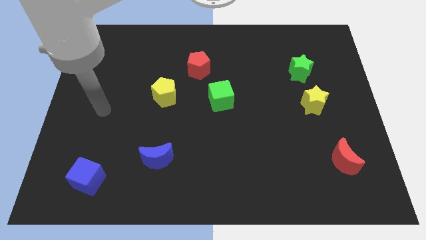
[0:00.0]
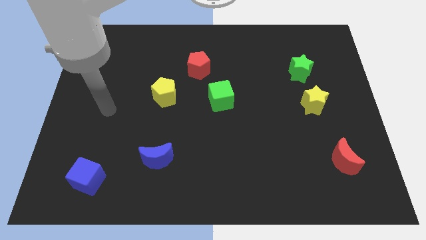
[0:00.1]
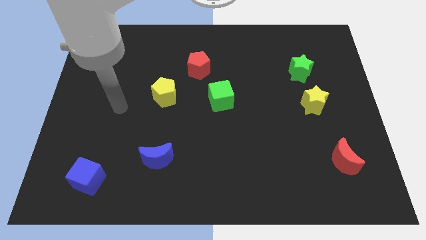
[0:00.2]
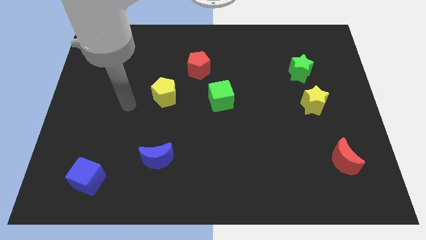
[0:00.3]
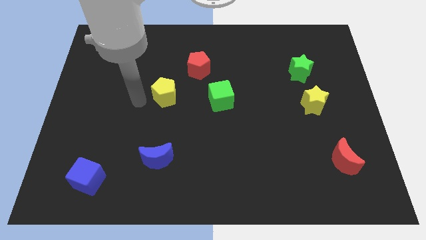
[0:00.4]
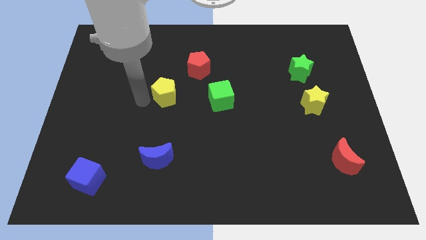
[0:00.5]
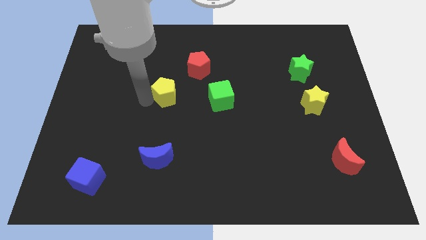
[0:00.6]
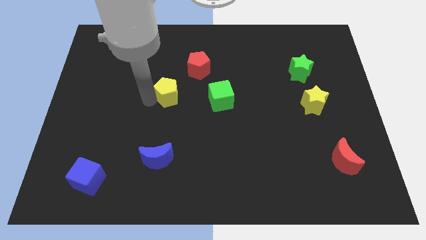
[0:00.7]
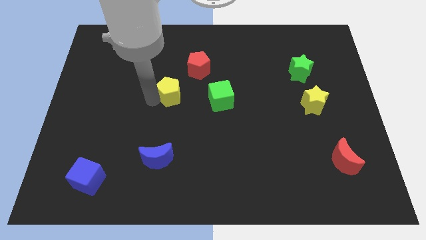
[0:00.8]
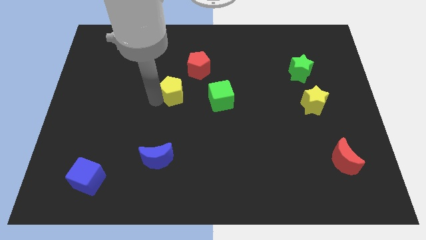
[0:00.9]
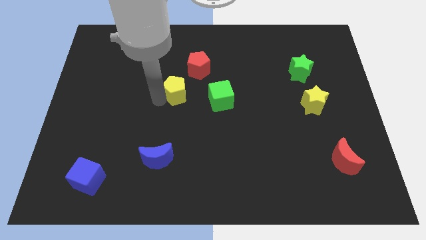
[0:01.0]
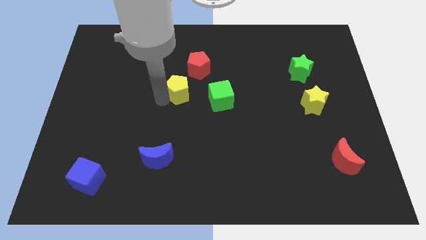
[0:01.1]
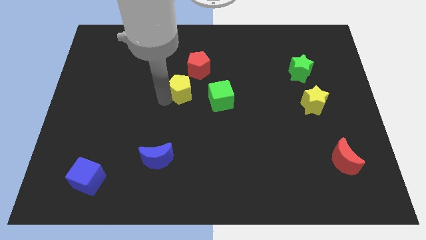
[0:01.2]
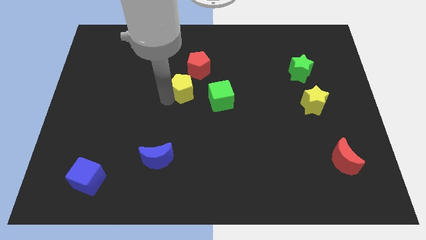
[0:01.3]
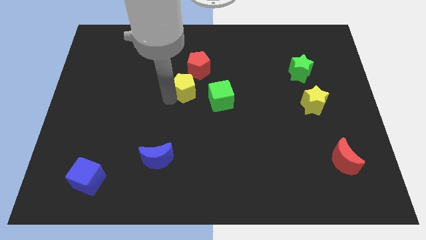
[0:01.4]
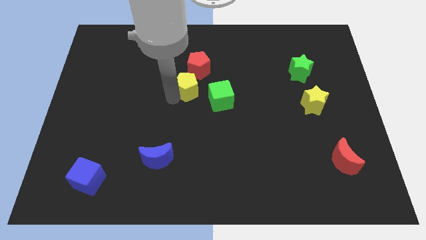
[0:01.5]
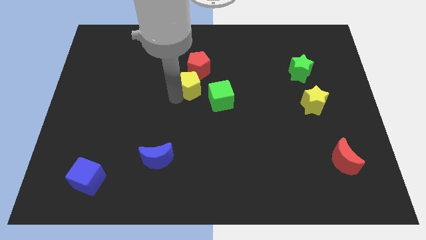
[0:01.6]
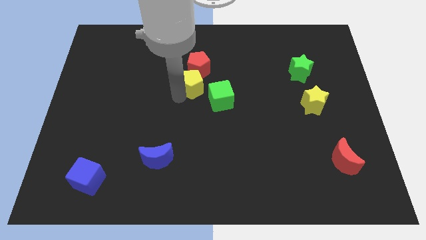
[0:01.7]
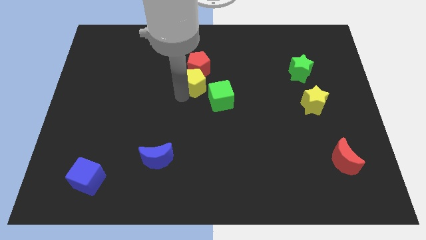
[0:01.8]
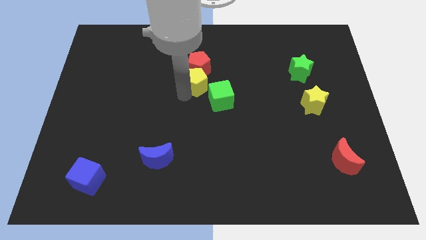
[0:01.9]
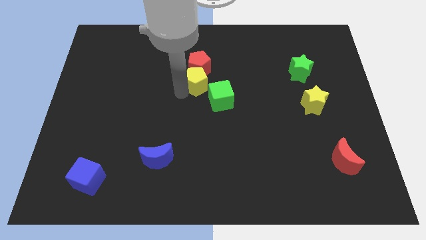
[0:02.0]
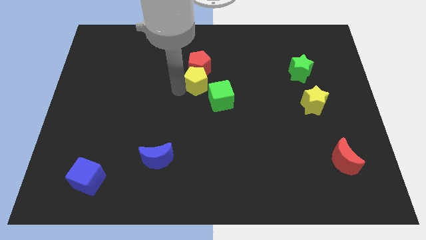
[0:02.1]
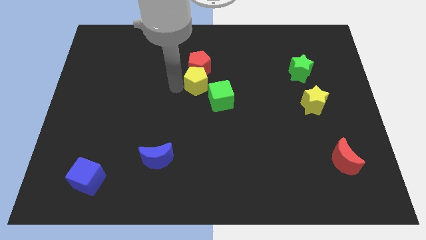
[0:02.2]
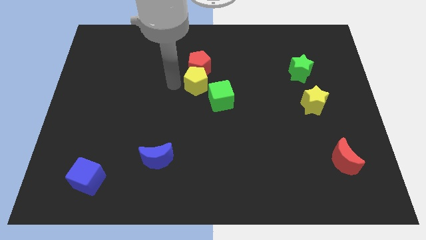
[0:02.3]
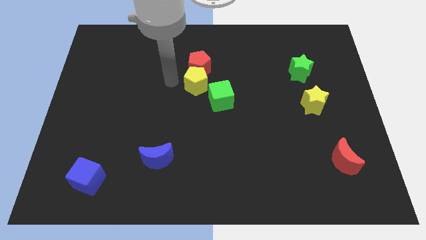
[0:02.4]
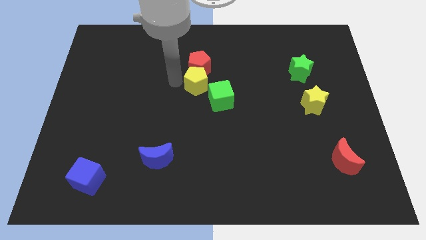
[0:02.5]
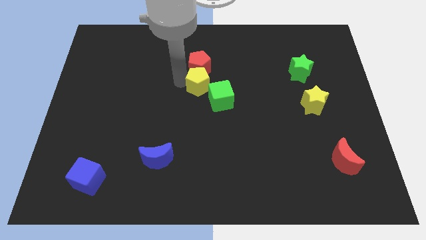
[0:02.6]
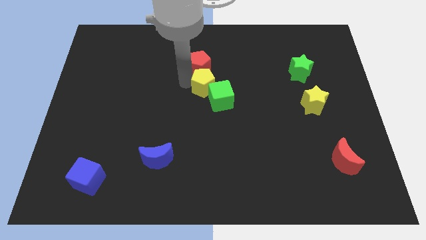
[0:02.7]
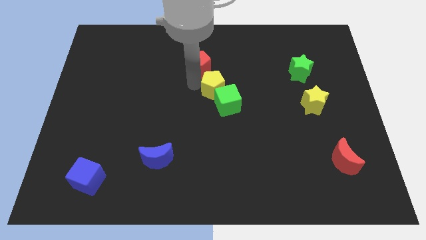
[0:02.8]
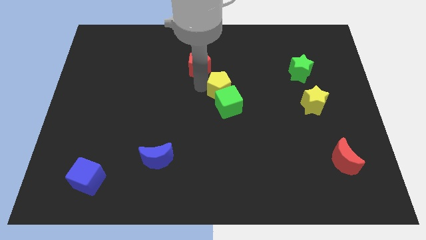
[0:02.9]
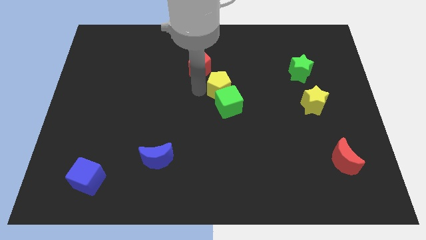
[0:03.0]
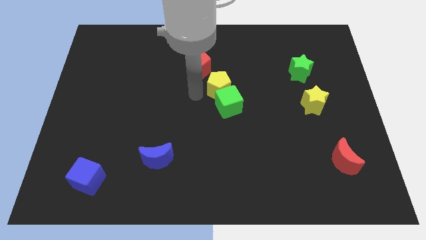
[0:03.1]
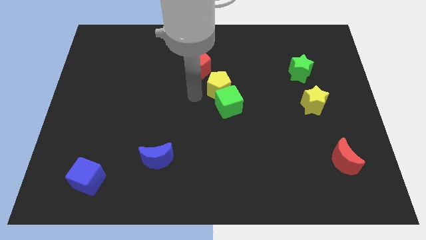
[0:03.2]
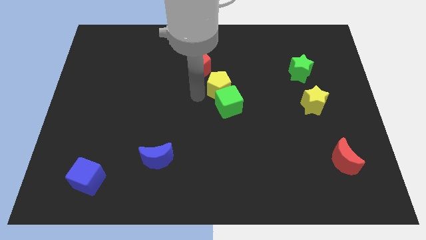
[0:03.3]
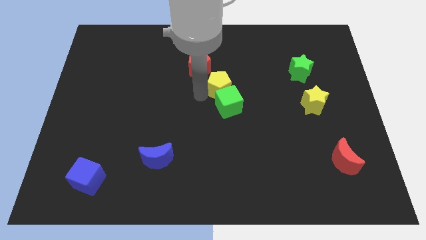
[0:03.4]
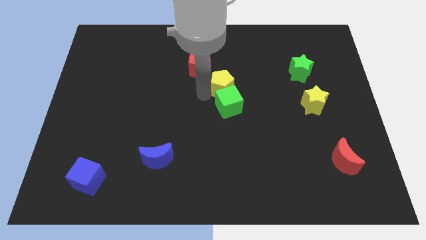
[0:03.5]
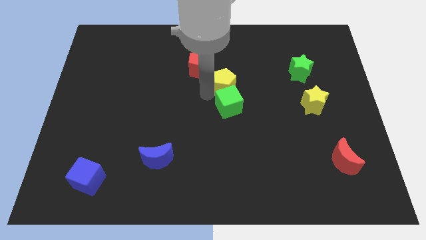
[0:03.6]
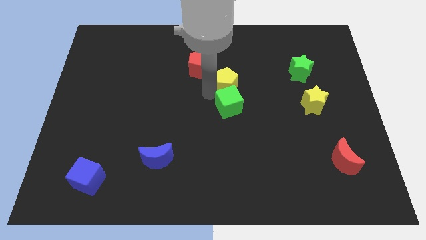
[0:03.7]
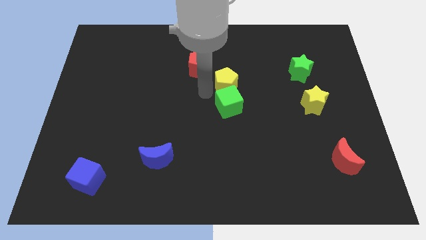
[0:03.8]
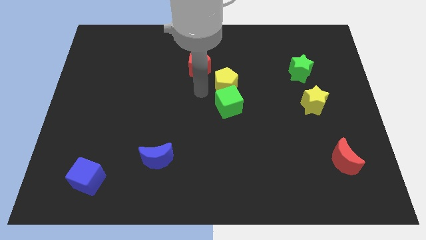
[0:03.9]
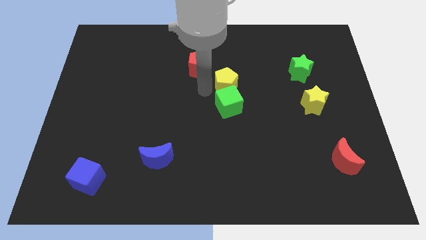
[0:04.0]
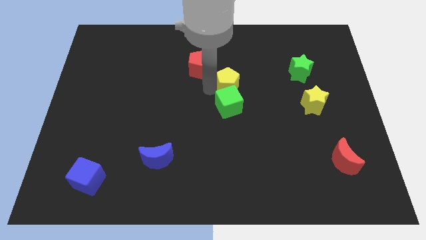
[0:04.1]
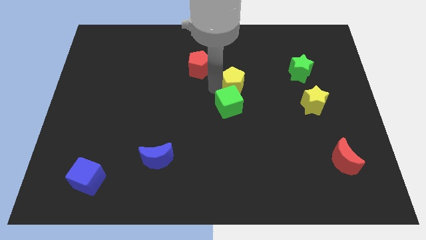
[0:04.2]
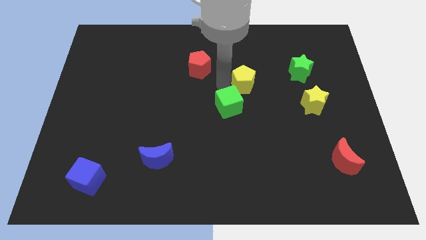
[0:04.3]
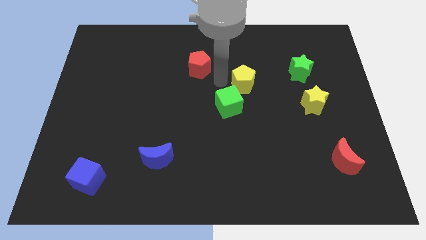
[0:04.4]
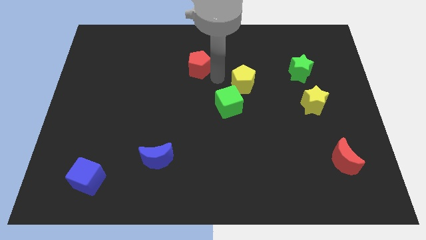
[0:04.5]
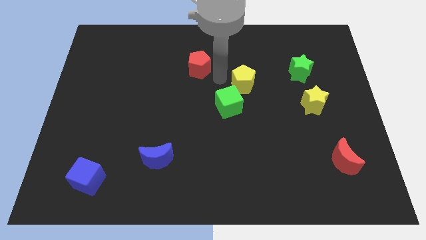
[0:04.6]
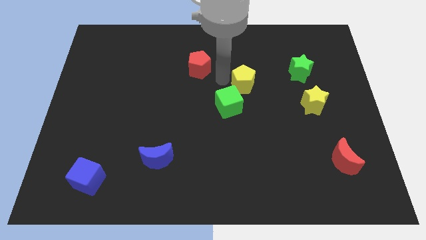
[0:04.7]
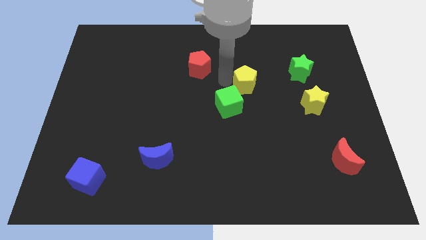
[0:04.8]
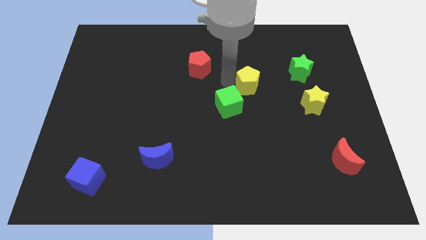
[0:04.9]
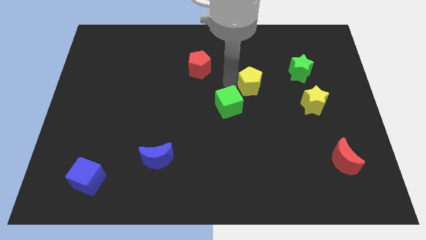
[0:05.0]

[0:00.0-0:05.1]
move the yellow pentagon right

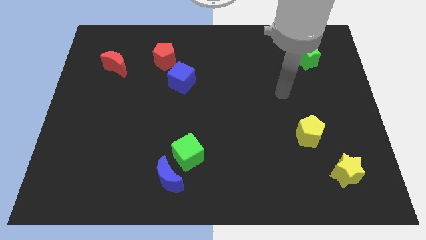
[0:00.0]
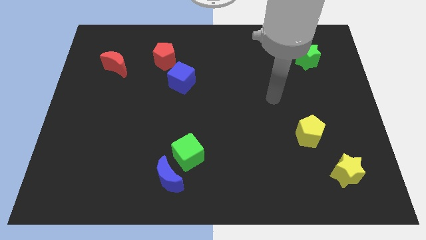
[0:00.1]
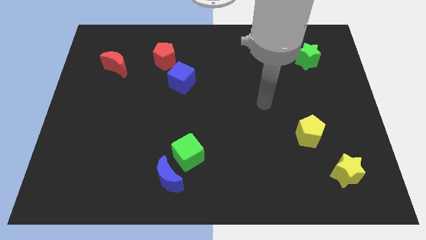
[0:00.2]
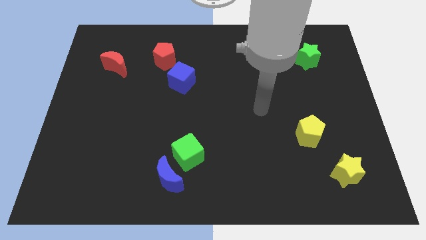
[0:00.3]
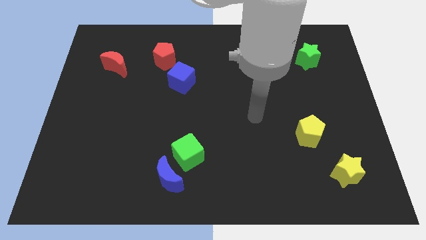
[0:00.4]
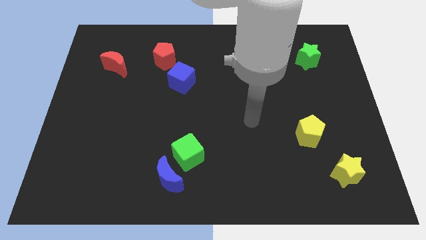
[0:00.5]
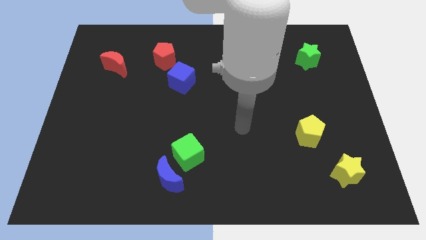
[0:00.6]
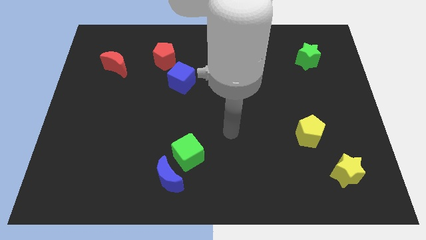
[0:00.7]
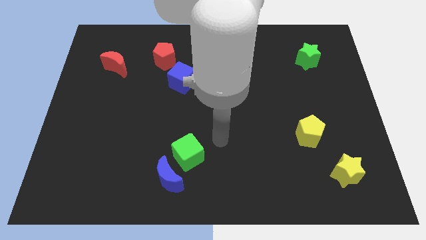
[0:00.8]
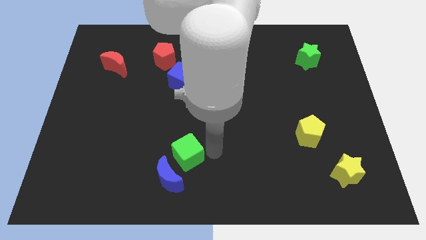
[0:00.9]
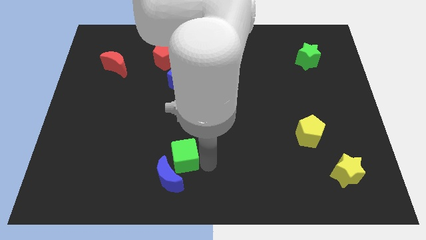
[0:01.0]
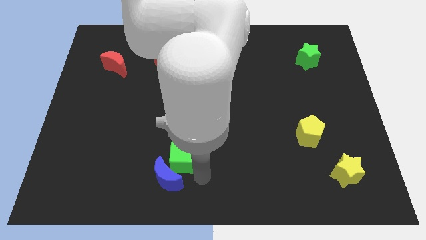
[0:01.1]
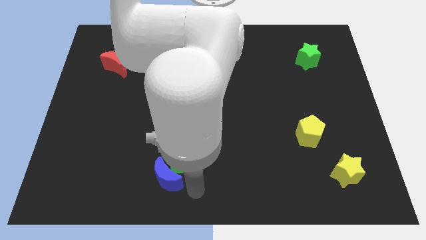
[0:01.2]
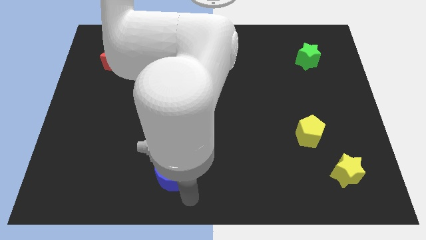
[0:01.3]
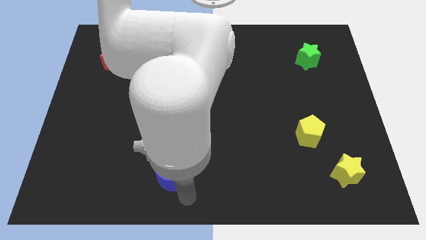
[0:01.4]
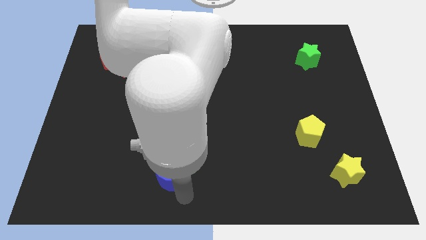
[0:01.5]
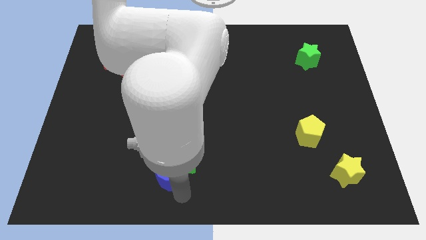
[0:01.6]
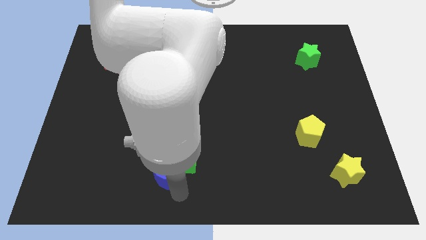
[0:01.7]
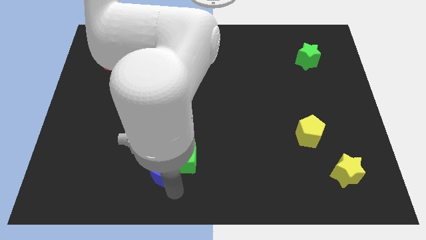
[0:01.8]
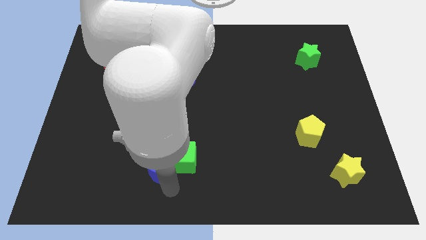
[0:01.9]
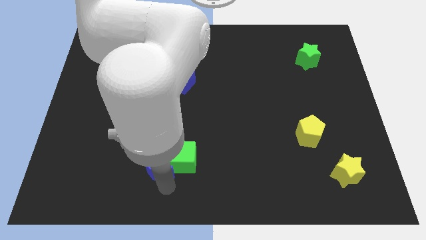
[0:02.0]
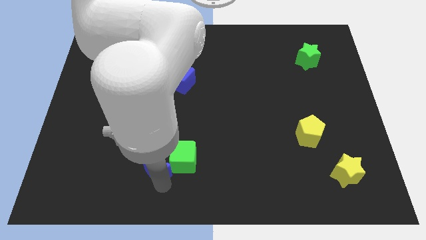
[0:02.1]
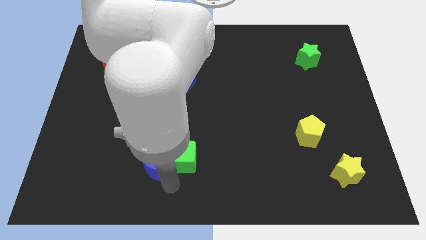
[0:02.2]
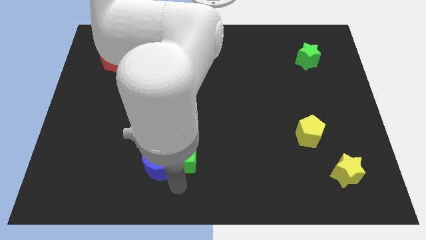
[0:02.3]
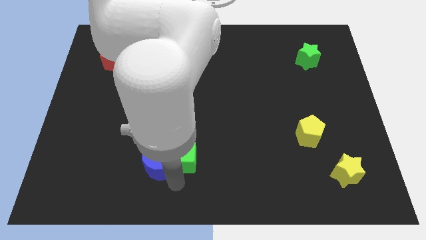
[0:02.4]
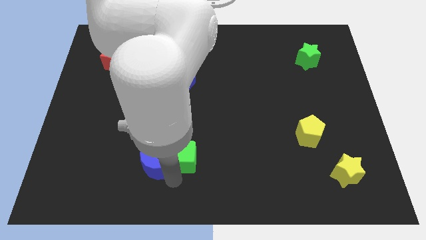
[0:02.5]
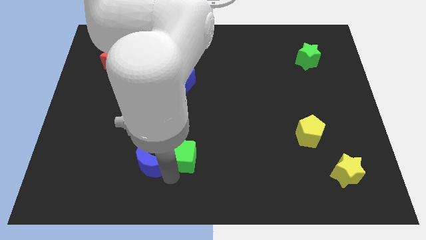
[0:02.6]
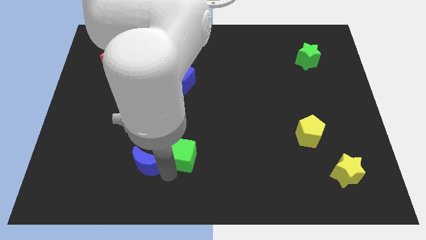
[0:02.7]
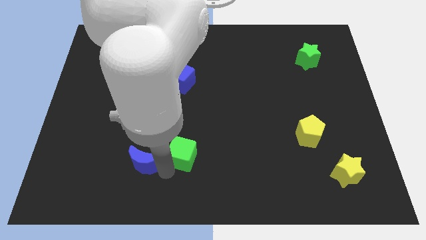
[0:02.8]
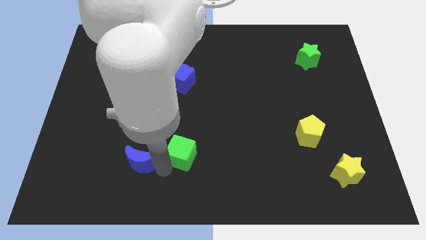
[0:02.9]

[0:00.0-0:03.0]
slightly slide the blue moon up and then left

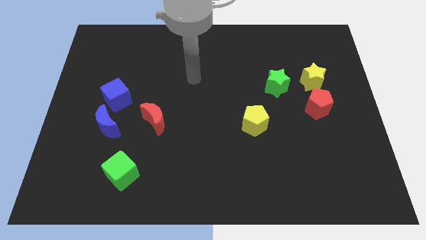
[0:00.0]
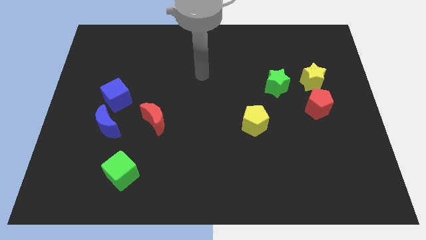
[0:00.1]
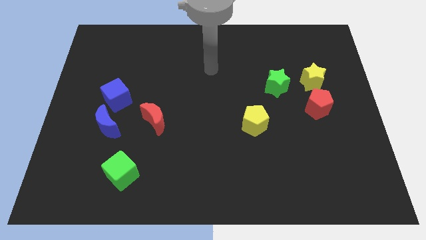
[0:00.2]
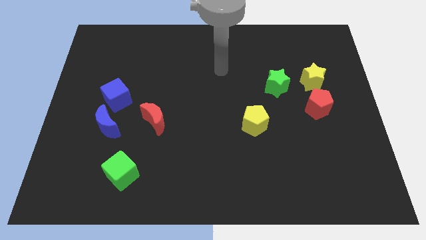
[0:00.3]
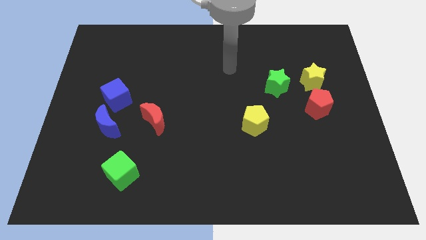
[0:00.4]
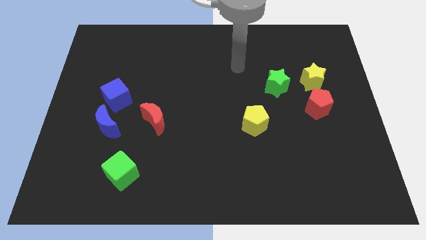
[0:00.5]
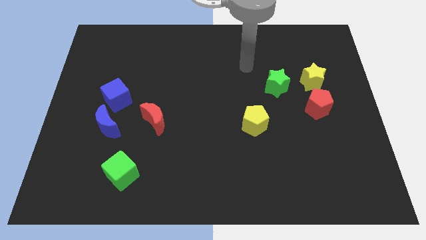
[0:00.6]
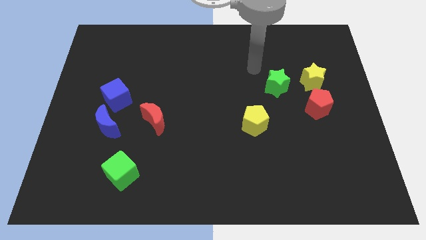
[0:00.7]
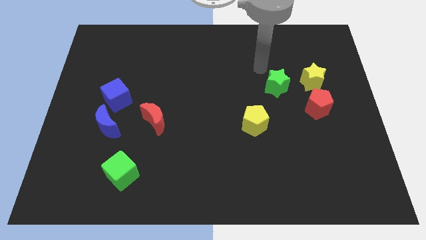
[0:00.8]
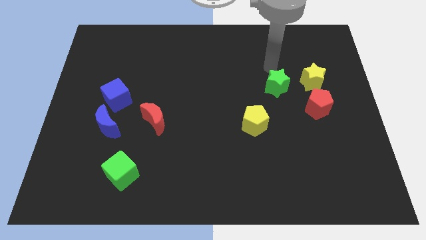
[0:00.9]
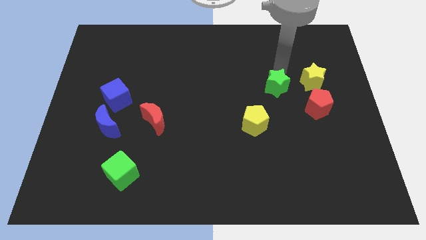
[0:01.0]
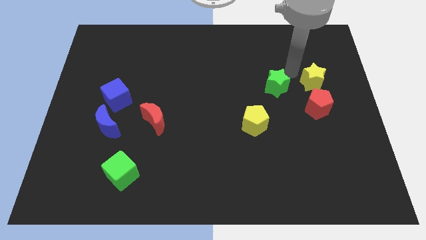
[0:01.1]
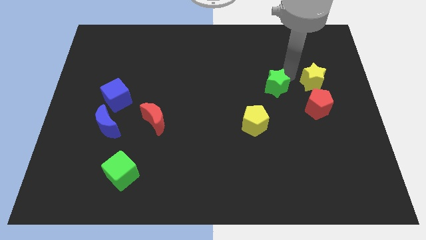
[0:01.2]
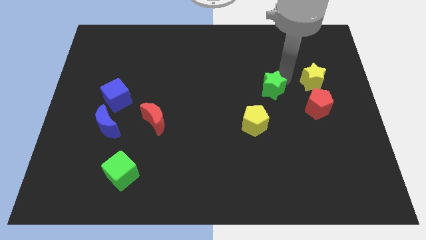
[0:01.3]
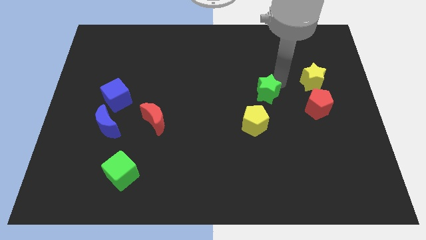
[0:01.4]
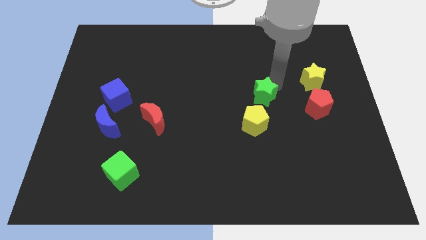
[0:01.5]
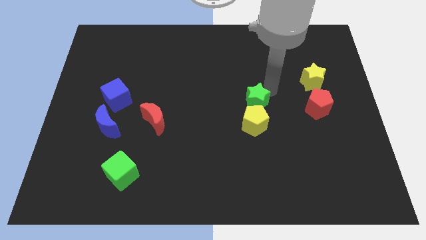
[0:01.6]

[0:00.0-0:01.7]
slightly push the green star downwards and to the left diagonally
